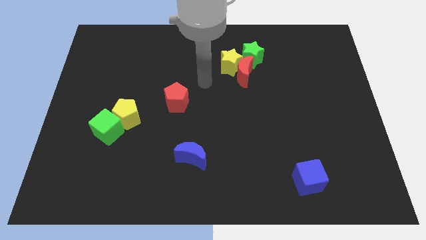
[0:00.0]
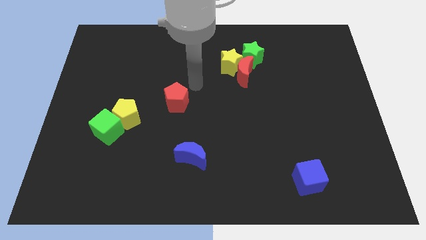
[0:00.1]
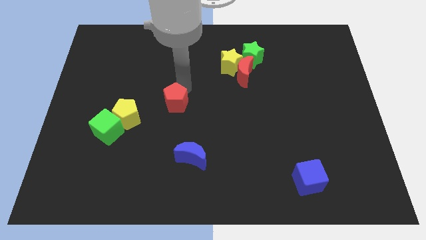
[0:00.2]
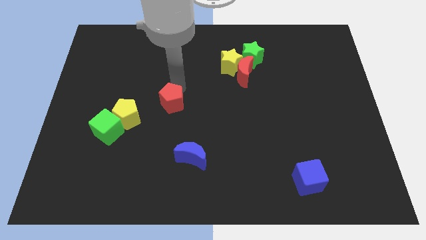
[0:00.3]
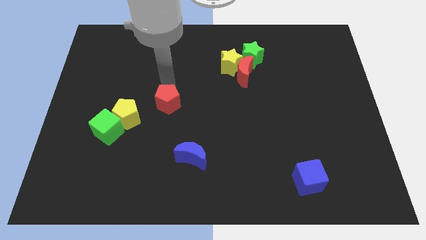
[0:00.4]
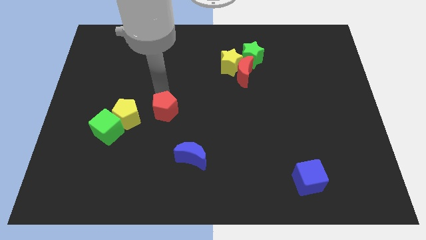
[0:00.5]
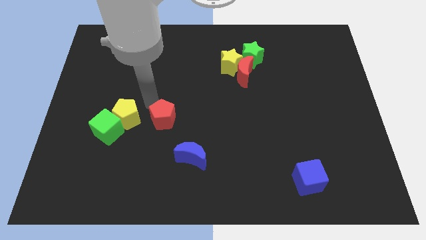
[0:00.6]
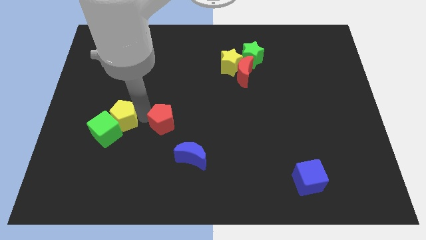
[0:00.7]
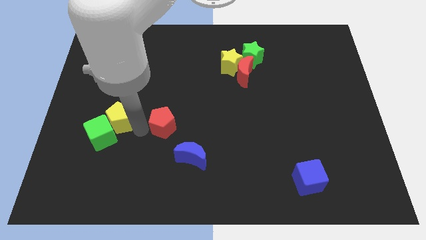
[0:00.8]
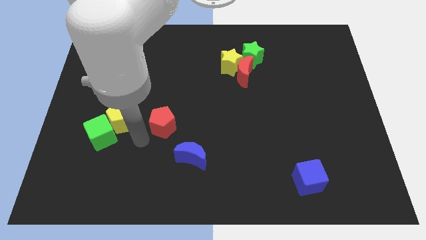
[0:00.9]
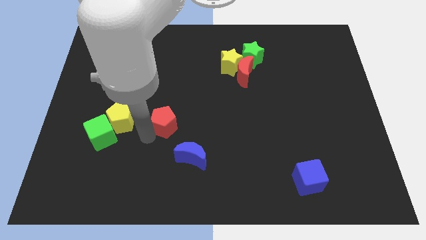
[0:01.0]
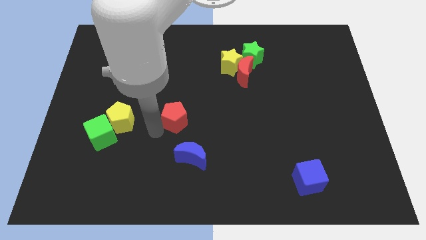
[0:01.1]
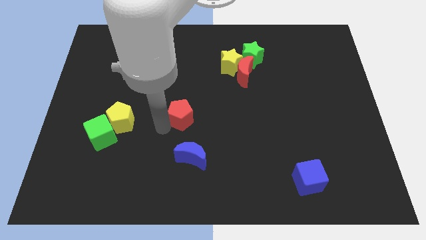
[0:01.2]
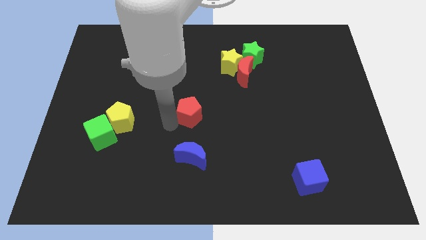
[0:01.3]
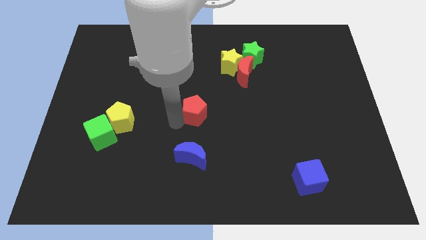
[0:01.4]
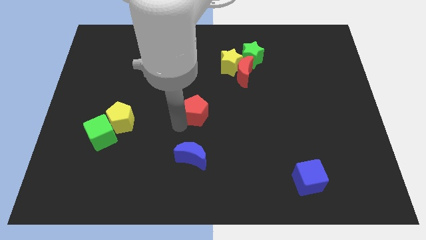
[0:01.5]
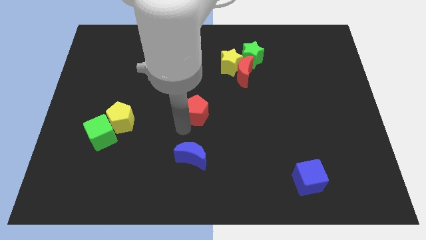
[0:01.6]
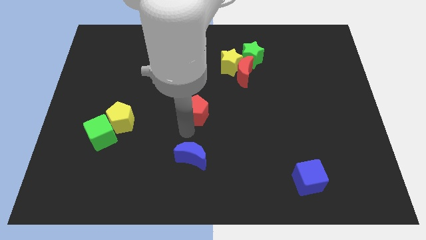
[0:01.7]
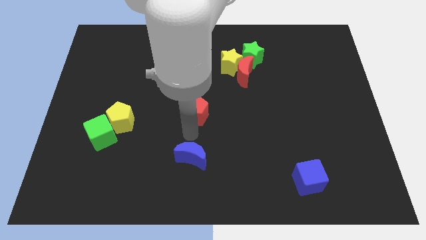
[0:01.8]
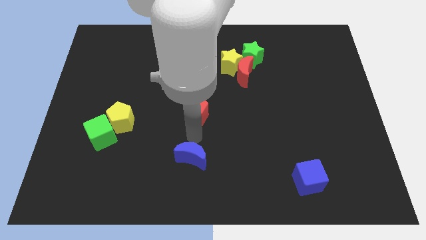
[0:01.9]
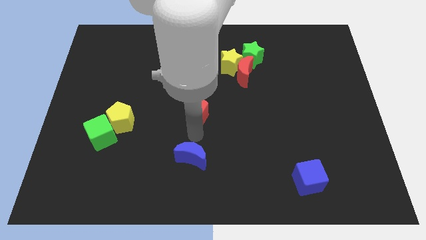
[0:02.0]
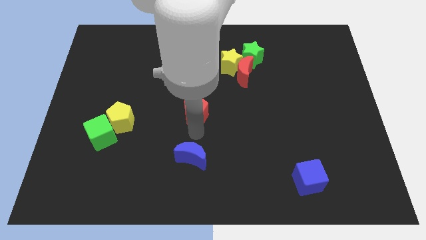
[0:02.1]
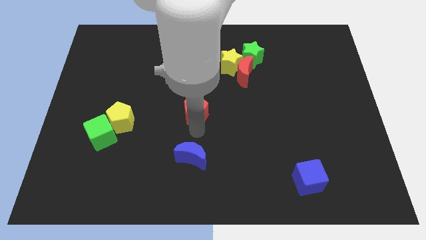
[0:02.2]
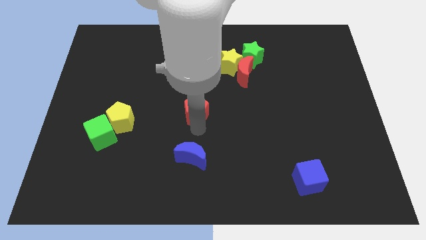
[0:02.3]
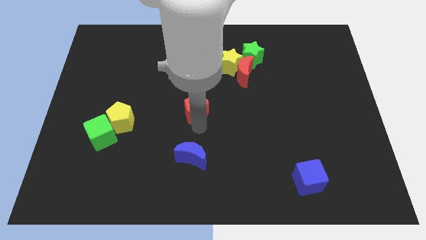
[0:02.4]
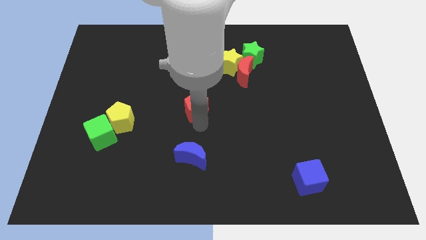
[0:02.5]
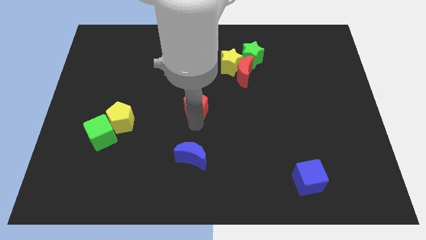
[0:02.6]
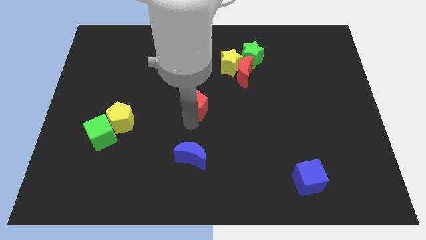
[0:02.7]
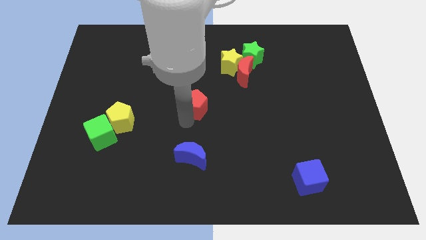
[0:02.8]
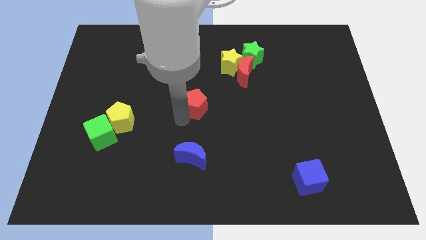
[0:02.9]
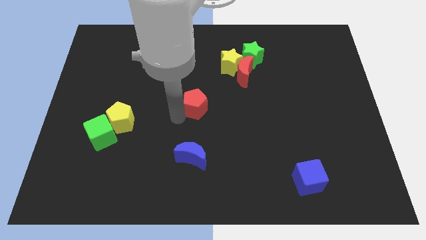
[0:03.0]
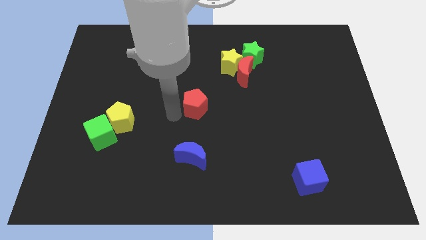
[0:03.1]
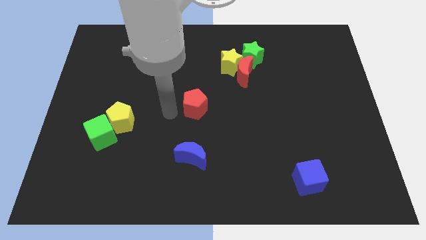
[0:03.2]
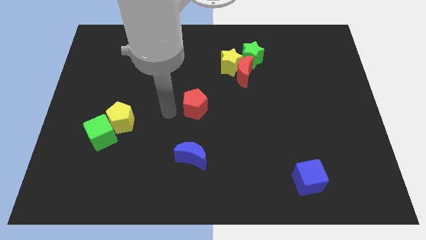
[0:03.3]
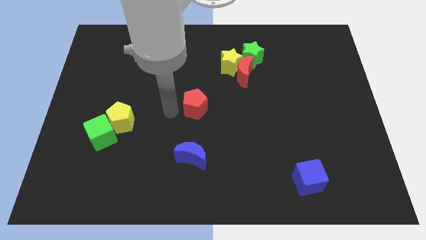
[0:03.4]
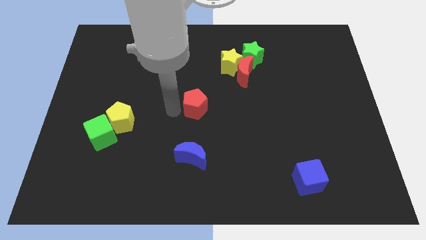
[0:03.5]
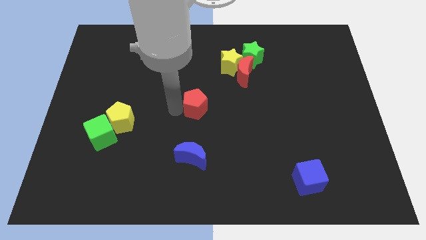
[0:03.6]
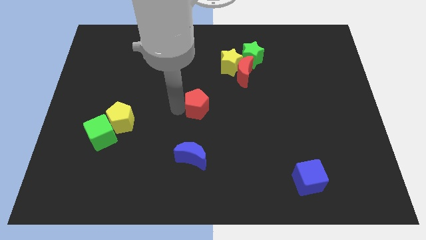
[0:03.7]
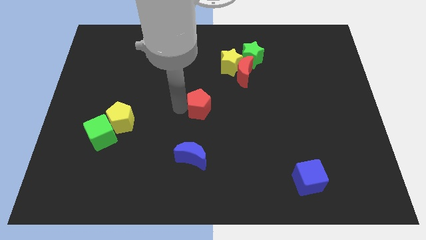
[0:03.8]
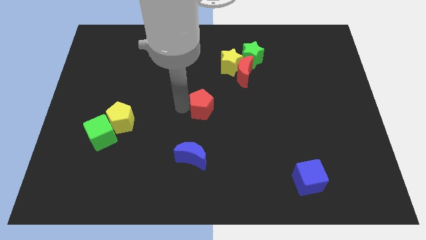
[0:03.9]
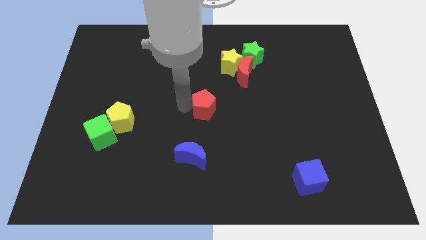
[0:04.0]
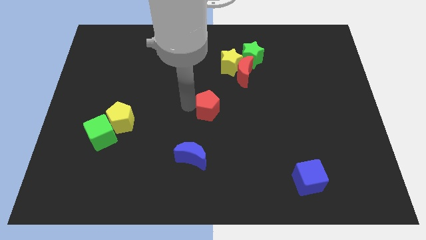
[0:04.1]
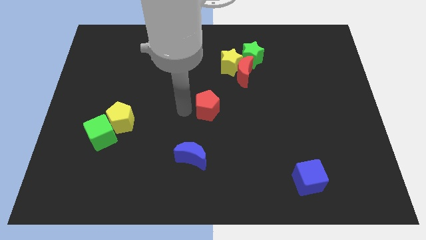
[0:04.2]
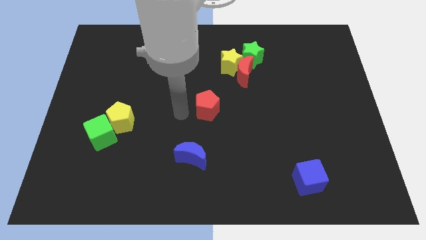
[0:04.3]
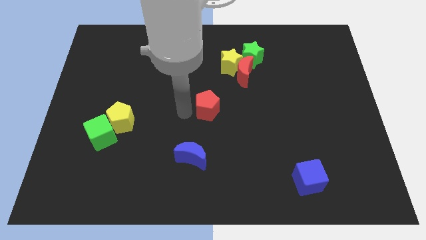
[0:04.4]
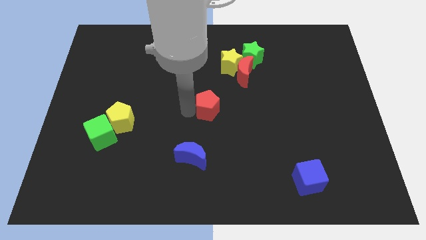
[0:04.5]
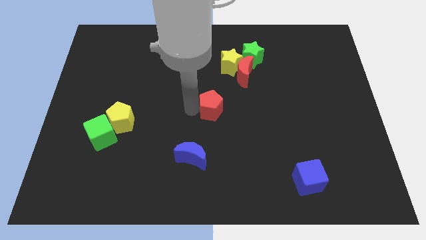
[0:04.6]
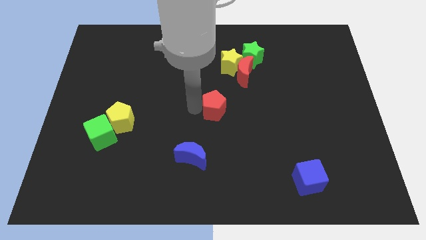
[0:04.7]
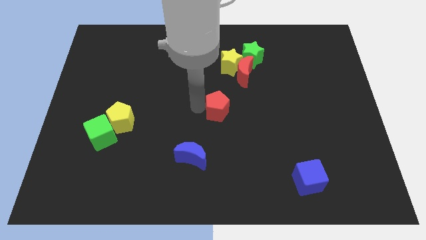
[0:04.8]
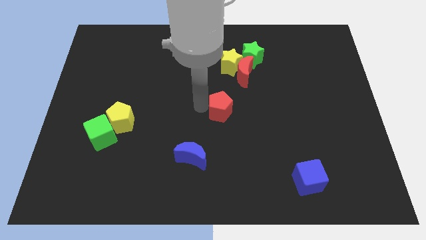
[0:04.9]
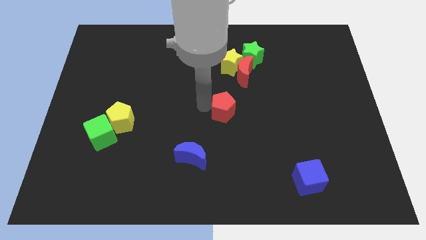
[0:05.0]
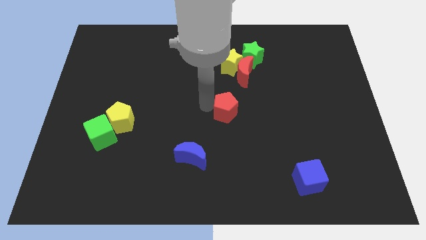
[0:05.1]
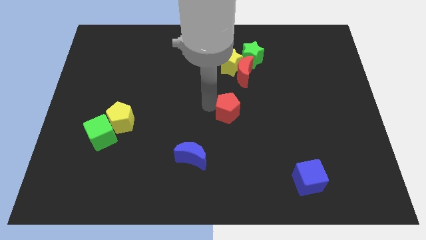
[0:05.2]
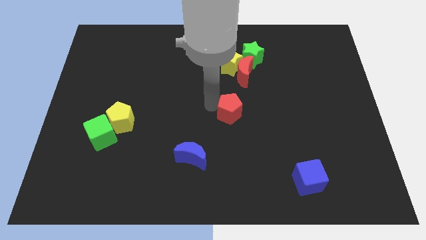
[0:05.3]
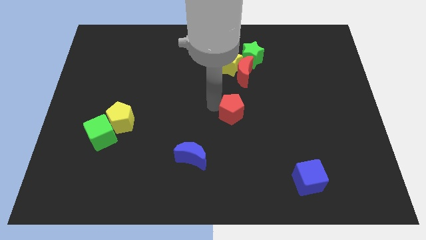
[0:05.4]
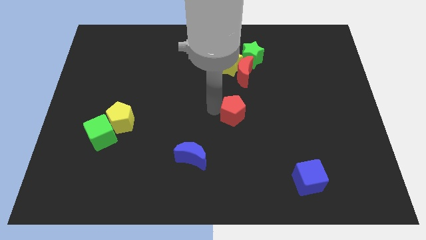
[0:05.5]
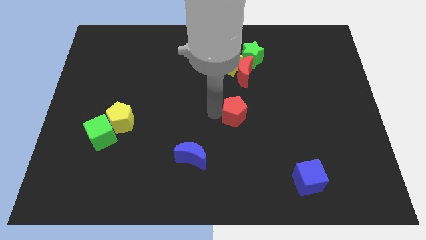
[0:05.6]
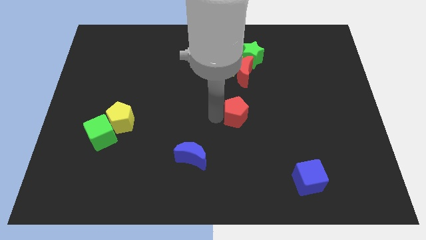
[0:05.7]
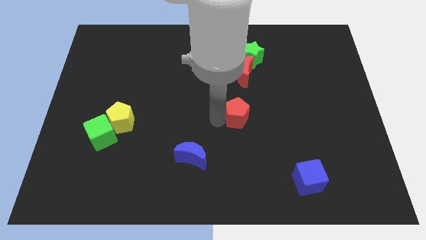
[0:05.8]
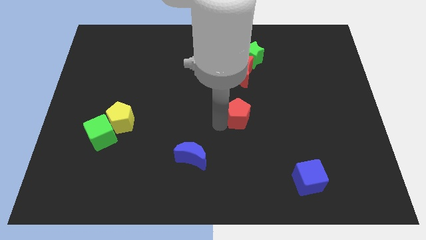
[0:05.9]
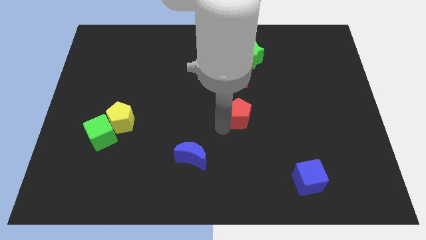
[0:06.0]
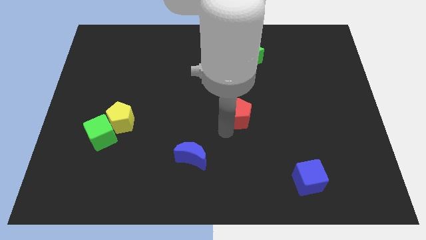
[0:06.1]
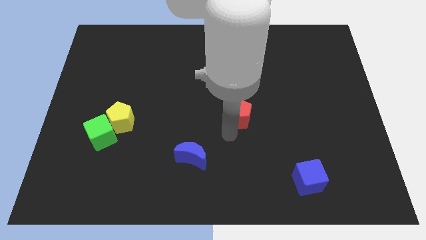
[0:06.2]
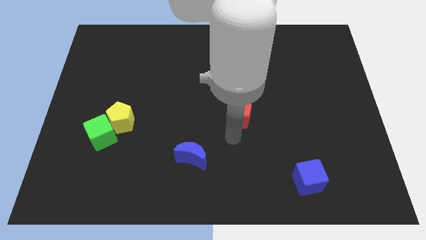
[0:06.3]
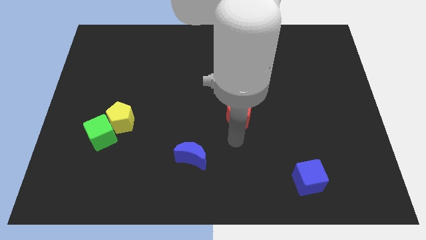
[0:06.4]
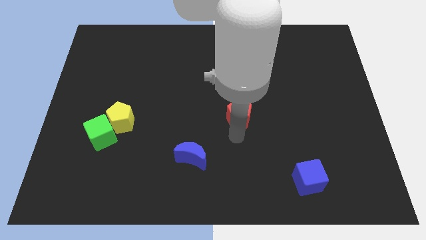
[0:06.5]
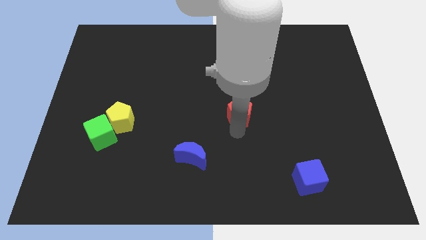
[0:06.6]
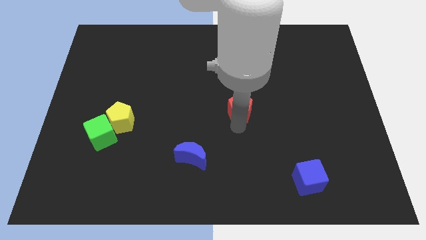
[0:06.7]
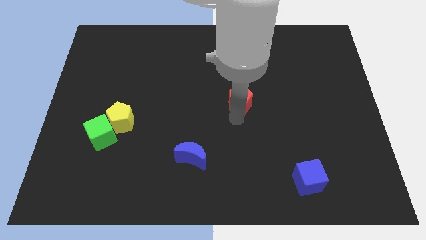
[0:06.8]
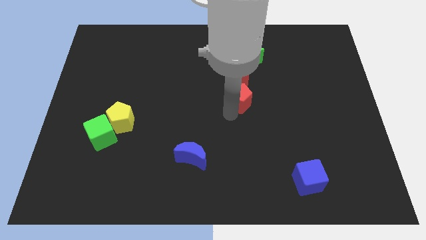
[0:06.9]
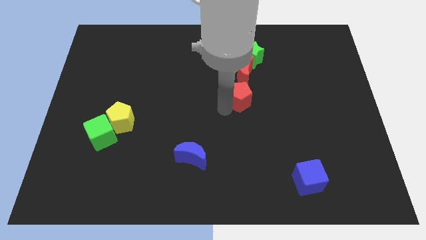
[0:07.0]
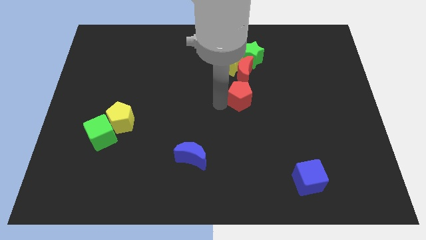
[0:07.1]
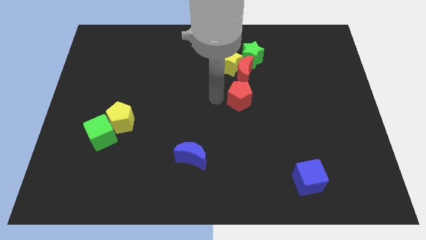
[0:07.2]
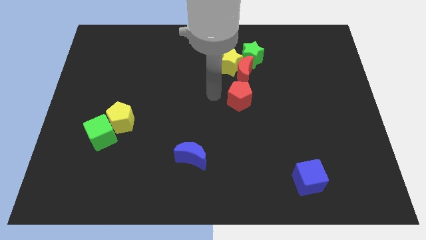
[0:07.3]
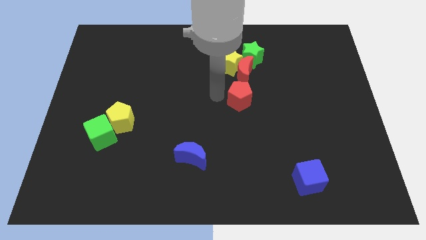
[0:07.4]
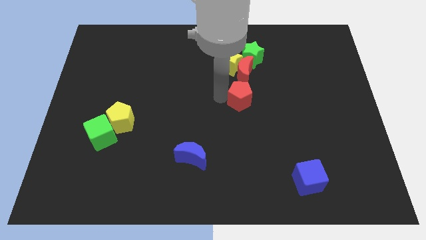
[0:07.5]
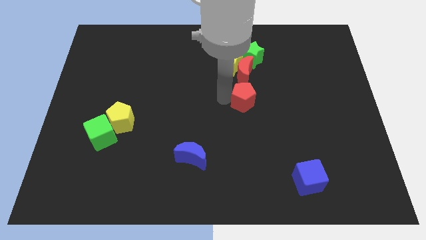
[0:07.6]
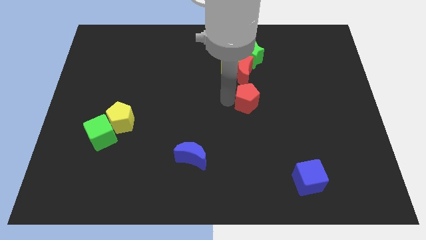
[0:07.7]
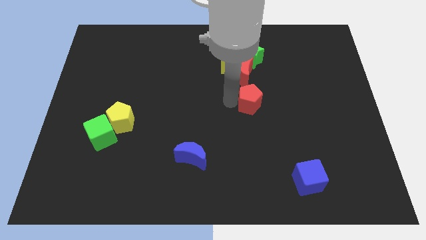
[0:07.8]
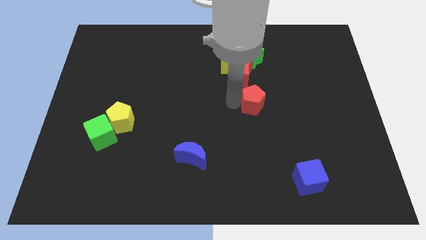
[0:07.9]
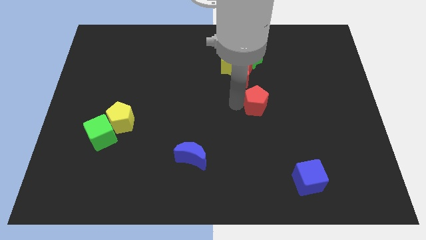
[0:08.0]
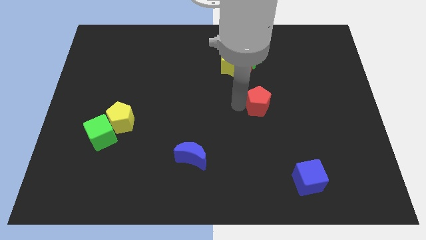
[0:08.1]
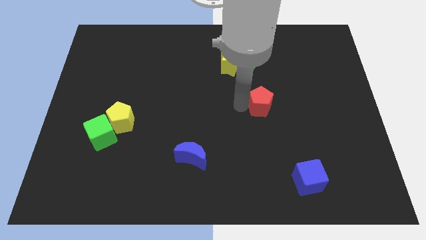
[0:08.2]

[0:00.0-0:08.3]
slide the red pentagon right
